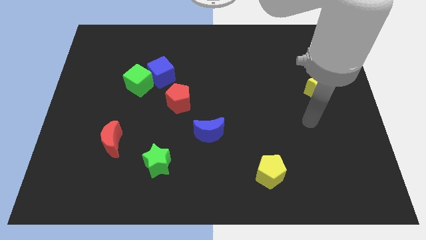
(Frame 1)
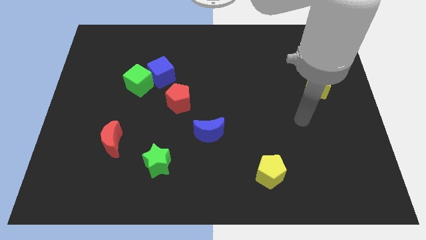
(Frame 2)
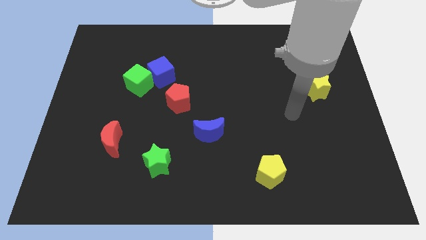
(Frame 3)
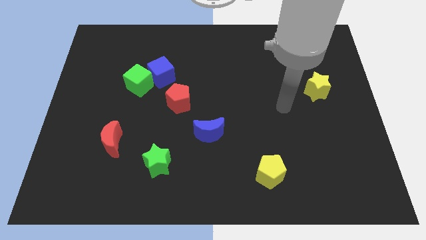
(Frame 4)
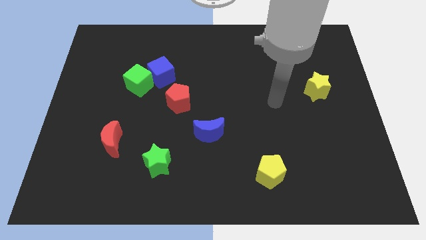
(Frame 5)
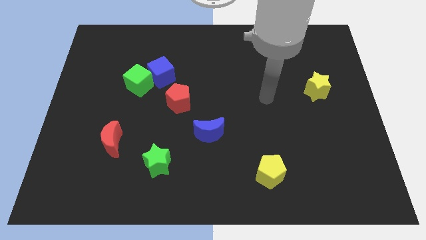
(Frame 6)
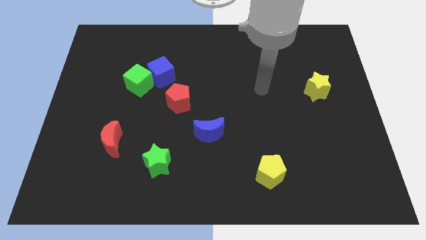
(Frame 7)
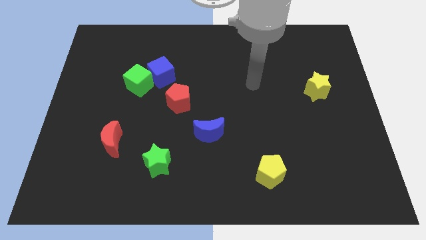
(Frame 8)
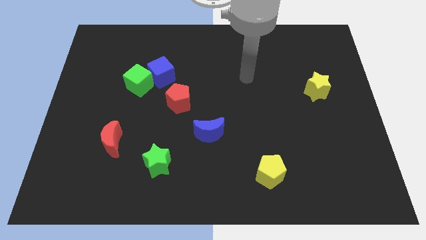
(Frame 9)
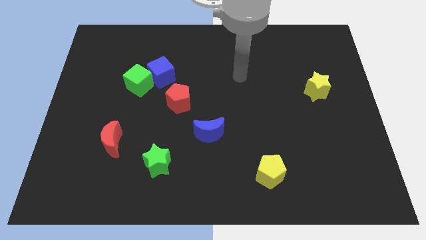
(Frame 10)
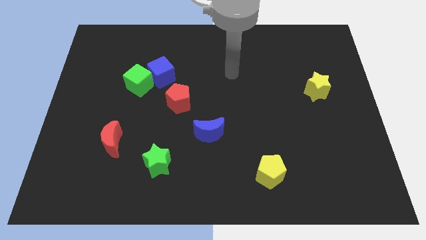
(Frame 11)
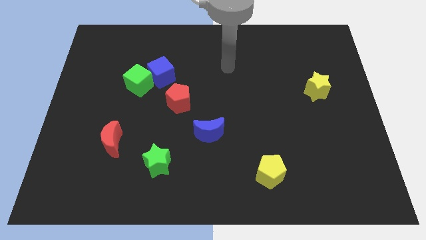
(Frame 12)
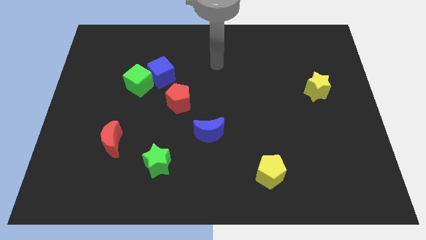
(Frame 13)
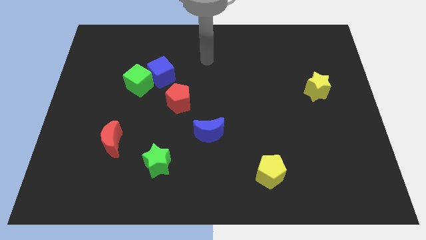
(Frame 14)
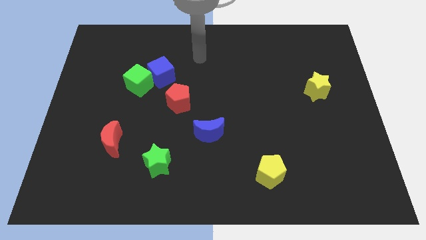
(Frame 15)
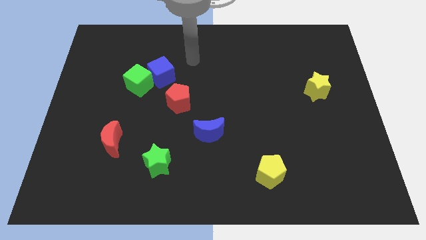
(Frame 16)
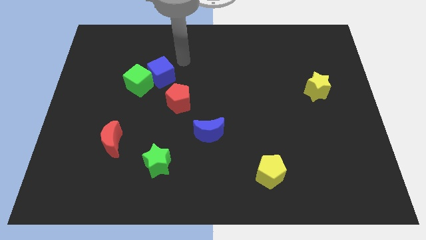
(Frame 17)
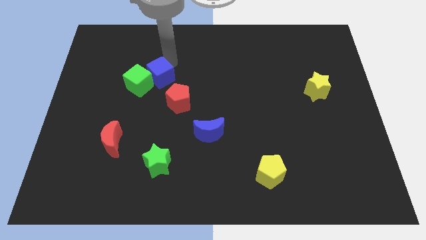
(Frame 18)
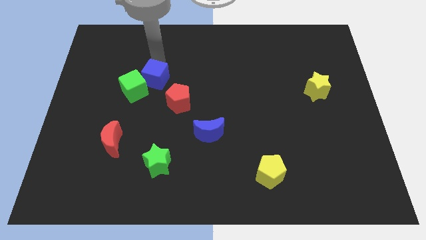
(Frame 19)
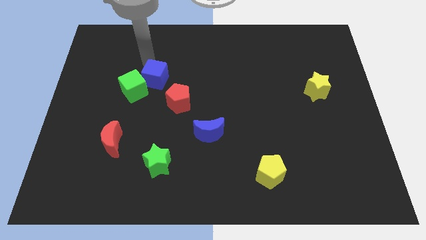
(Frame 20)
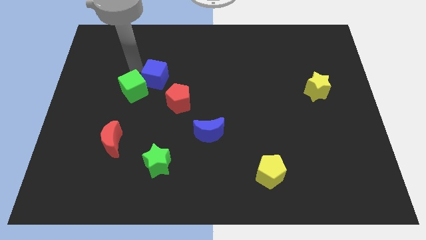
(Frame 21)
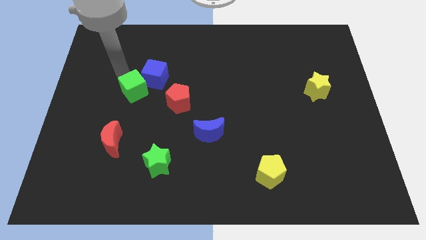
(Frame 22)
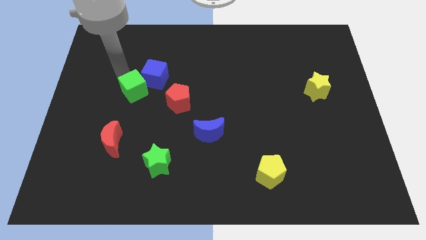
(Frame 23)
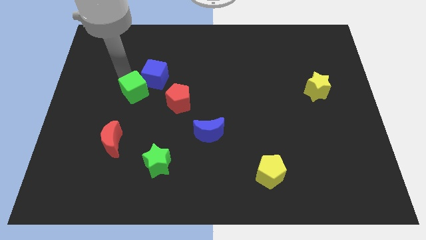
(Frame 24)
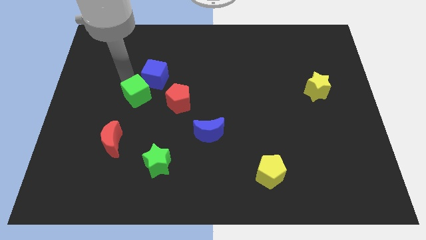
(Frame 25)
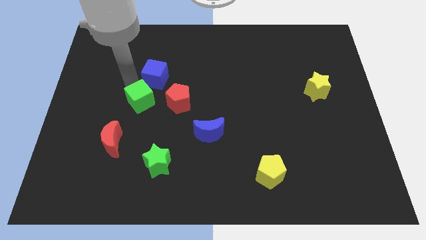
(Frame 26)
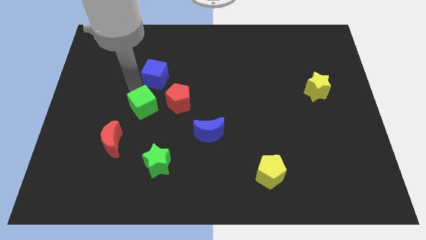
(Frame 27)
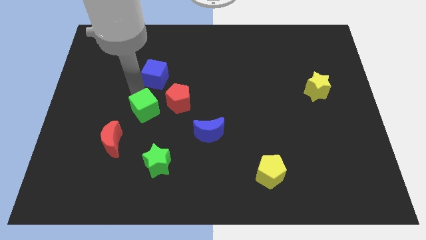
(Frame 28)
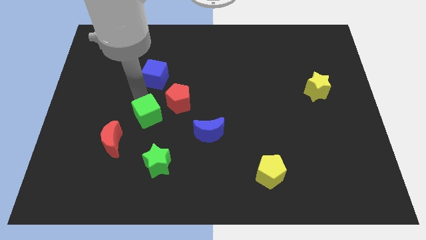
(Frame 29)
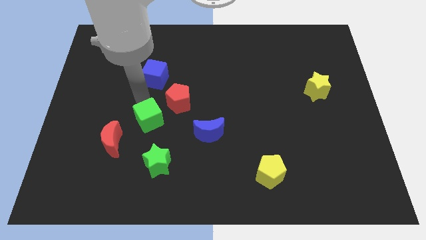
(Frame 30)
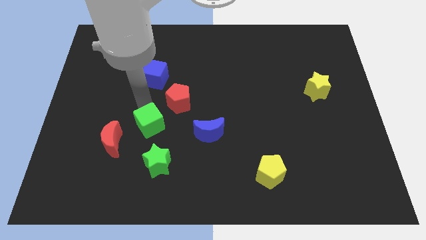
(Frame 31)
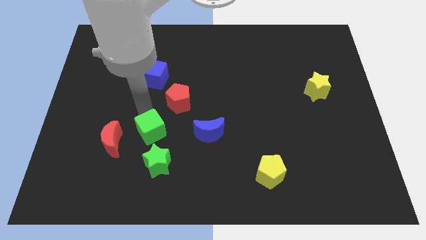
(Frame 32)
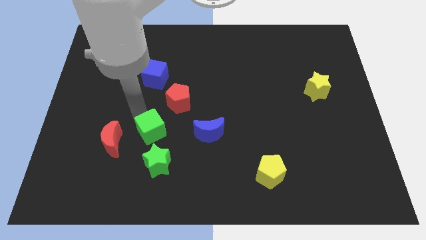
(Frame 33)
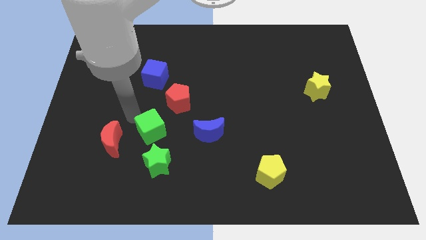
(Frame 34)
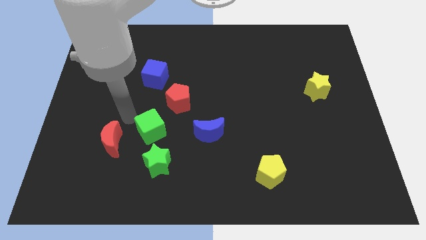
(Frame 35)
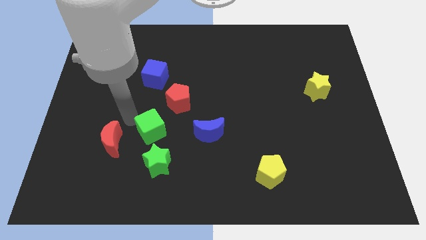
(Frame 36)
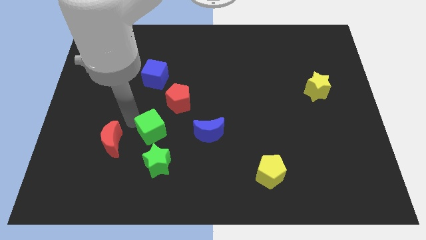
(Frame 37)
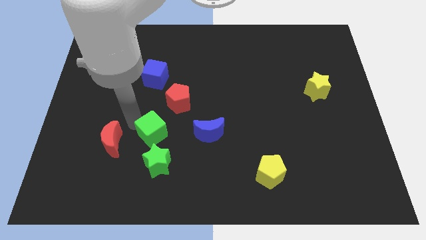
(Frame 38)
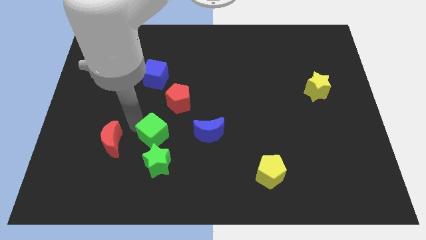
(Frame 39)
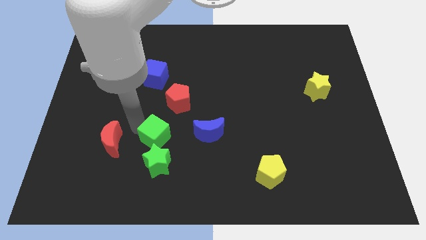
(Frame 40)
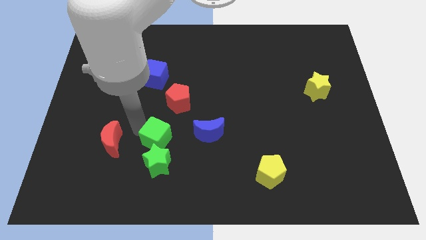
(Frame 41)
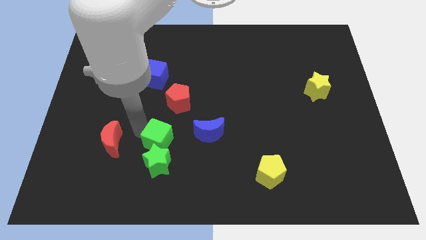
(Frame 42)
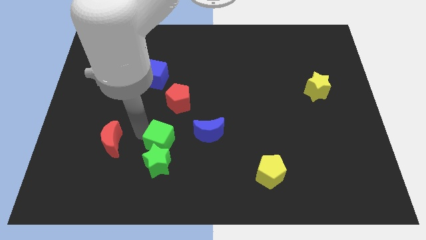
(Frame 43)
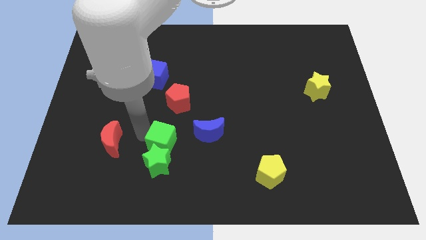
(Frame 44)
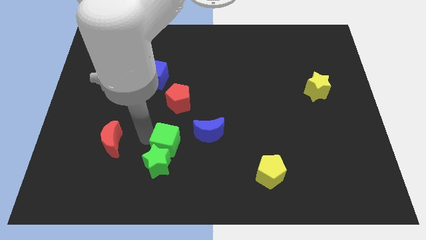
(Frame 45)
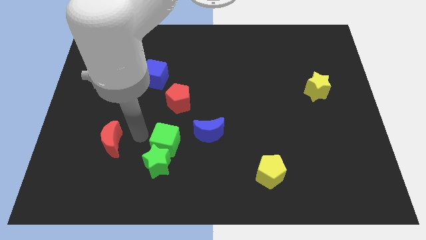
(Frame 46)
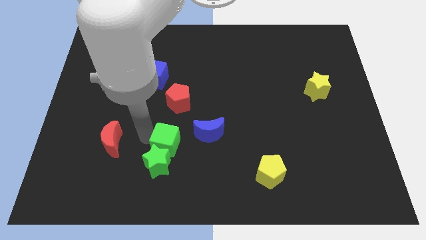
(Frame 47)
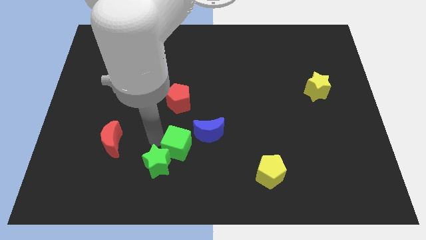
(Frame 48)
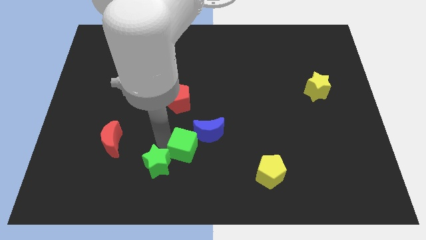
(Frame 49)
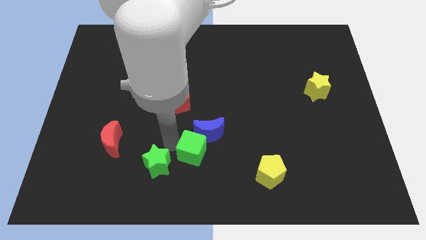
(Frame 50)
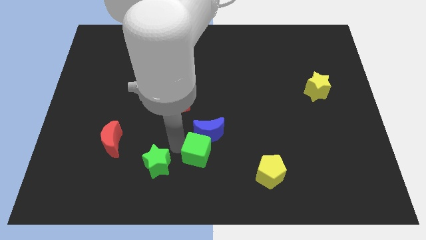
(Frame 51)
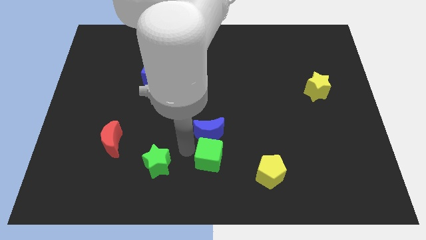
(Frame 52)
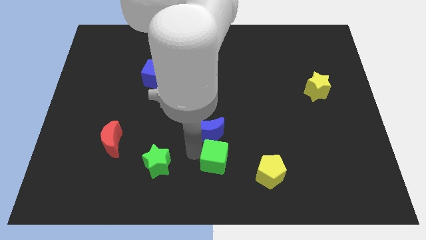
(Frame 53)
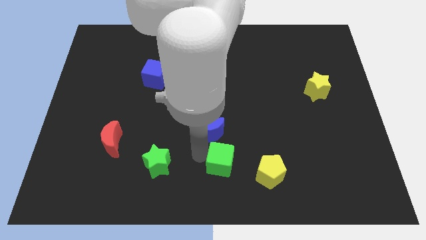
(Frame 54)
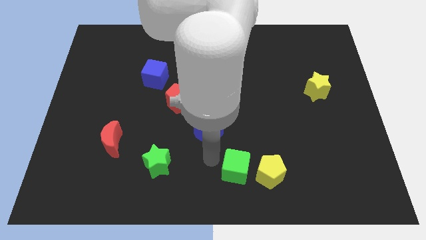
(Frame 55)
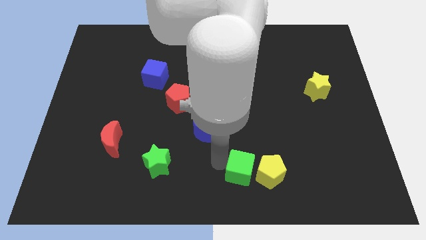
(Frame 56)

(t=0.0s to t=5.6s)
push the green cube next to the yellow pentagon
